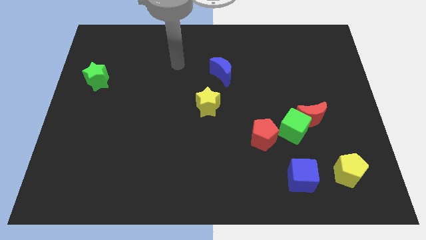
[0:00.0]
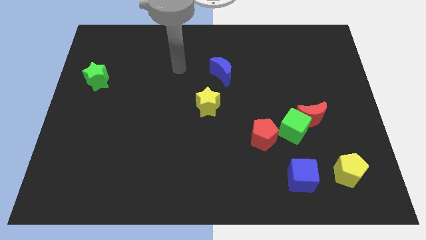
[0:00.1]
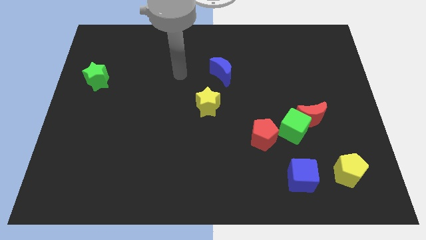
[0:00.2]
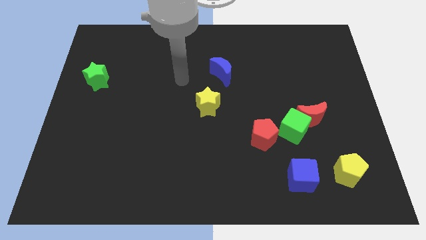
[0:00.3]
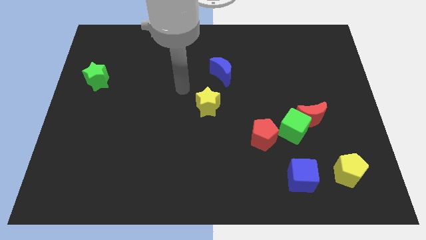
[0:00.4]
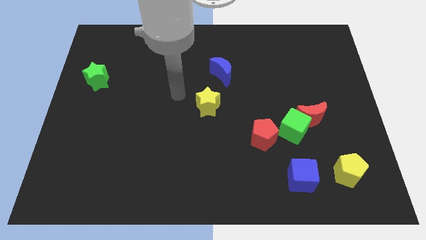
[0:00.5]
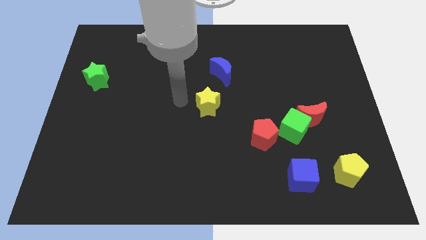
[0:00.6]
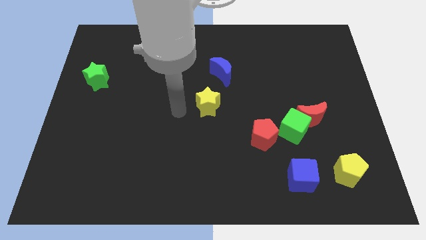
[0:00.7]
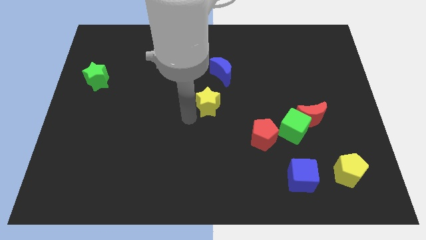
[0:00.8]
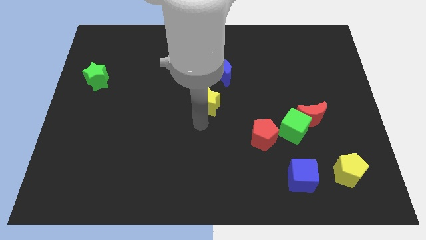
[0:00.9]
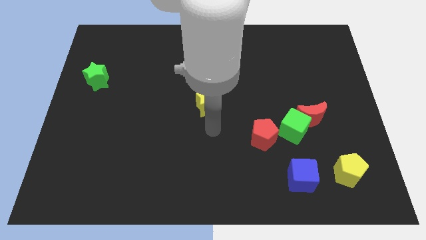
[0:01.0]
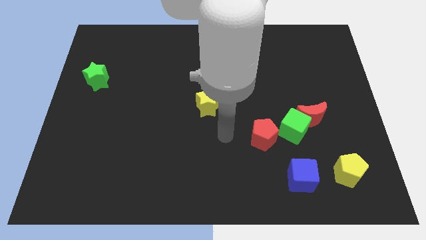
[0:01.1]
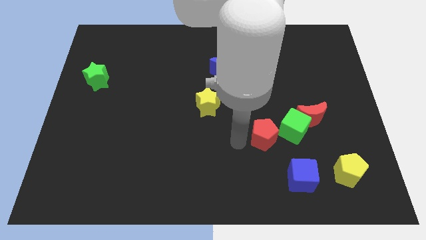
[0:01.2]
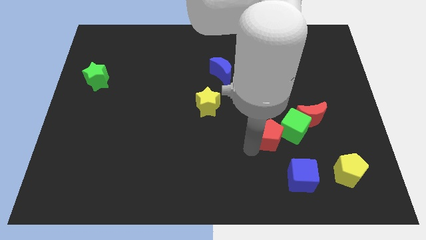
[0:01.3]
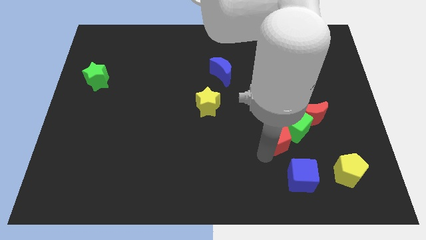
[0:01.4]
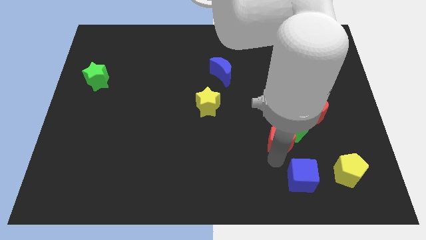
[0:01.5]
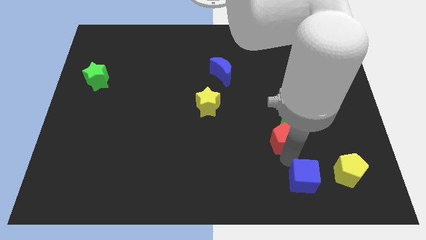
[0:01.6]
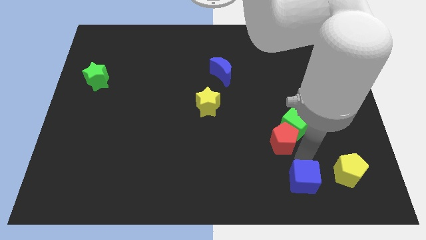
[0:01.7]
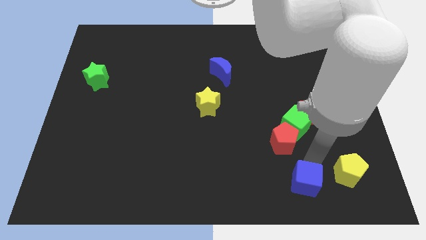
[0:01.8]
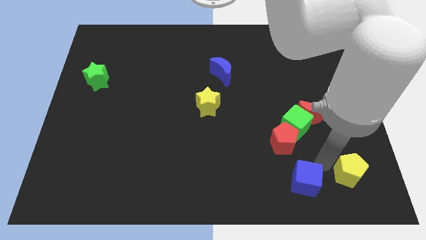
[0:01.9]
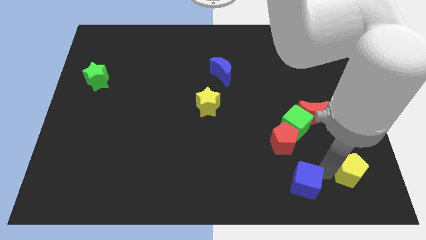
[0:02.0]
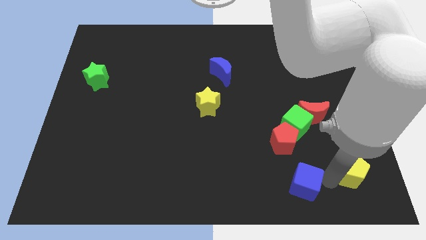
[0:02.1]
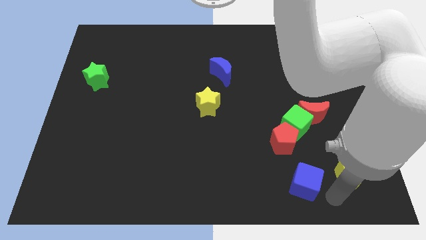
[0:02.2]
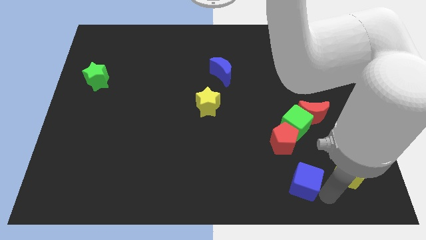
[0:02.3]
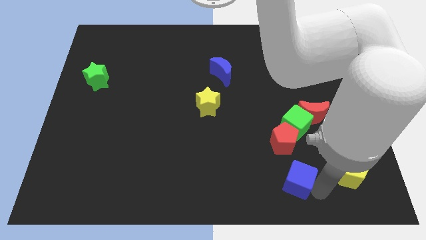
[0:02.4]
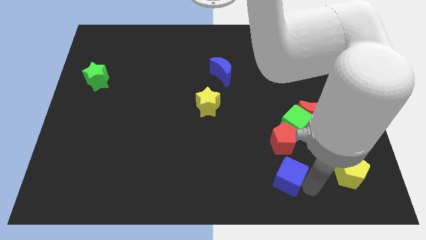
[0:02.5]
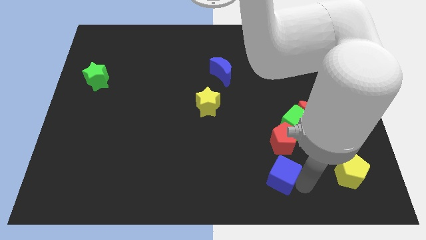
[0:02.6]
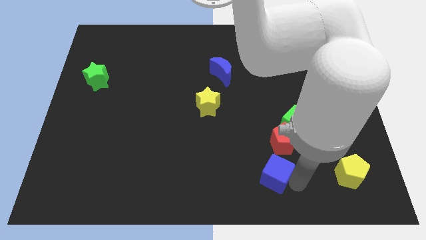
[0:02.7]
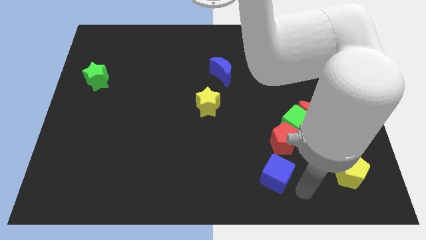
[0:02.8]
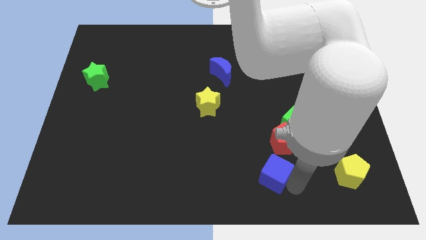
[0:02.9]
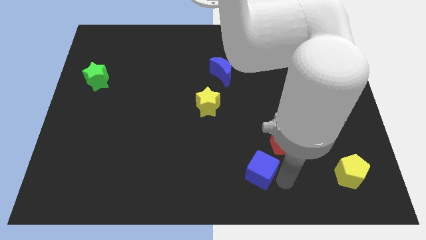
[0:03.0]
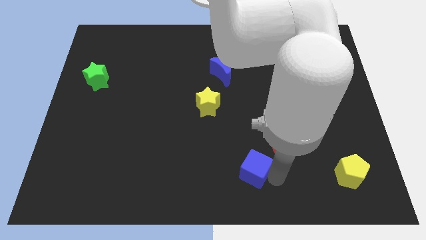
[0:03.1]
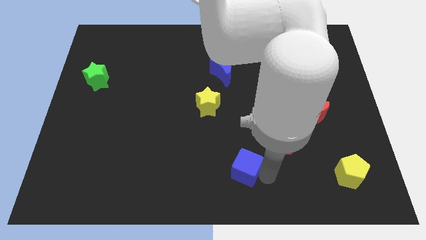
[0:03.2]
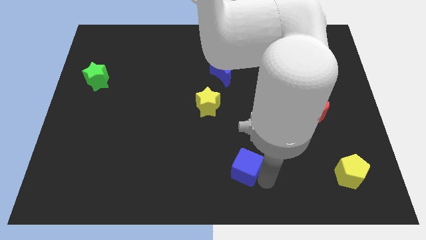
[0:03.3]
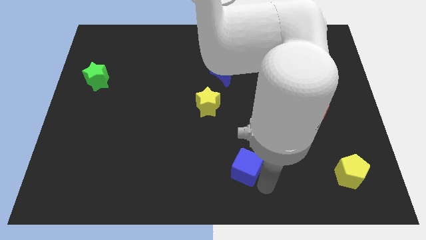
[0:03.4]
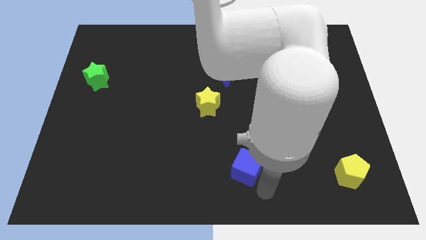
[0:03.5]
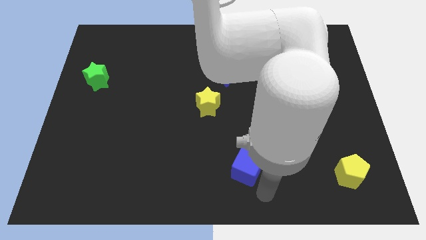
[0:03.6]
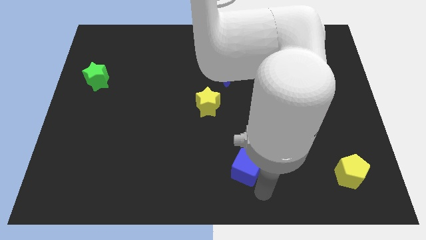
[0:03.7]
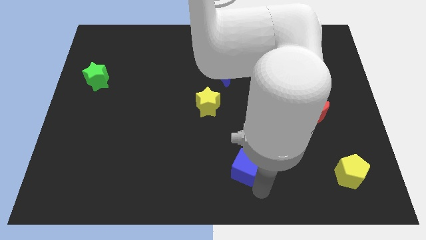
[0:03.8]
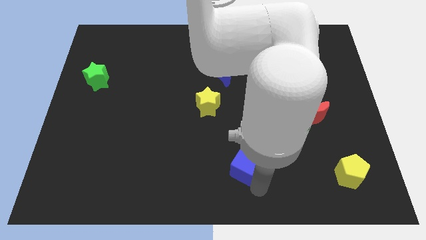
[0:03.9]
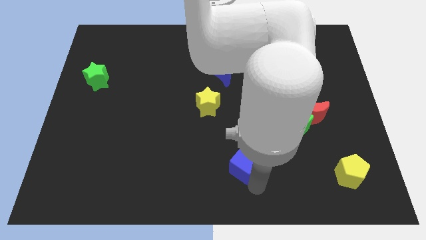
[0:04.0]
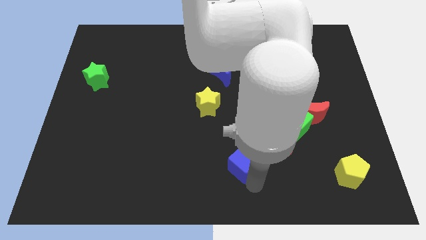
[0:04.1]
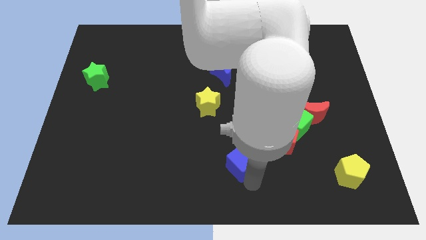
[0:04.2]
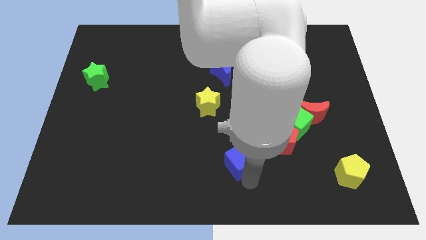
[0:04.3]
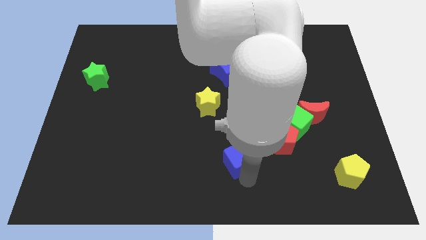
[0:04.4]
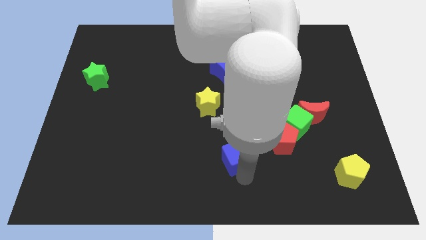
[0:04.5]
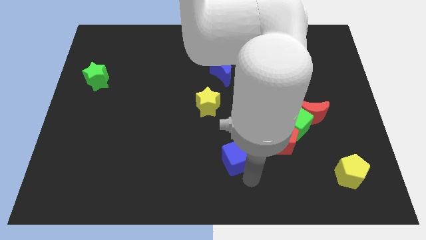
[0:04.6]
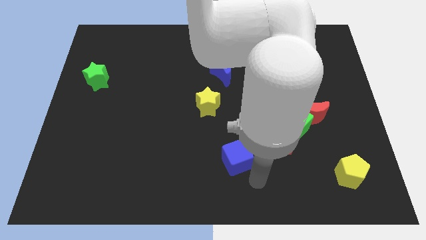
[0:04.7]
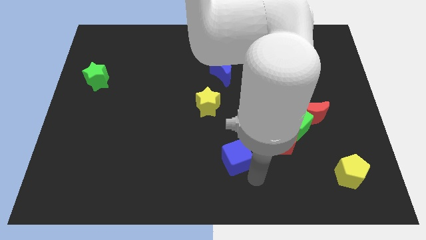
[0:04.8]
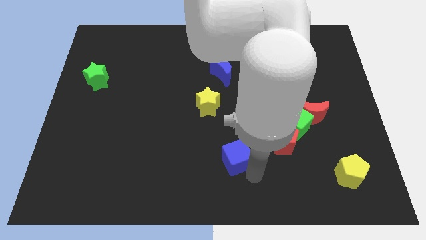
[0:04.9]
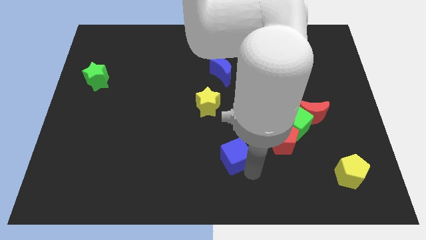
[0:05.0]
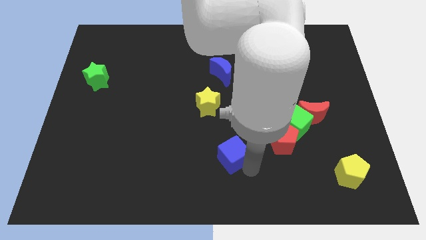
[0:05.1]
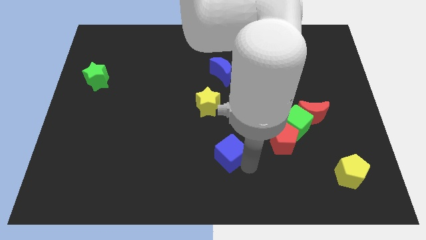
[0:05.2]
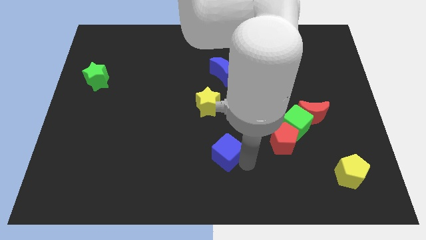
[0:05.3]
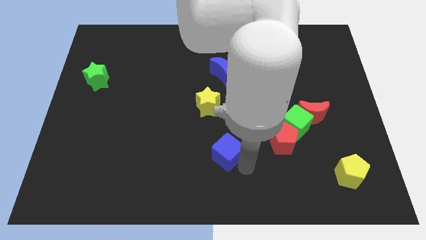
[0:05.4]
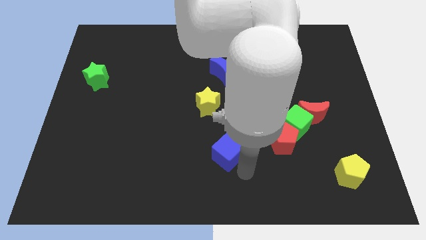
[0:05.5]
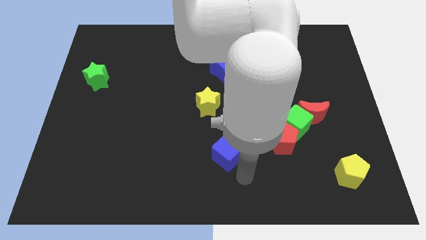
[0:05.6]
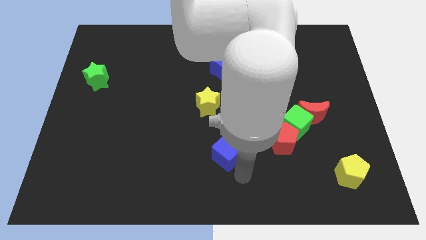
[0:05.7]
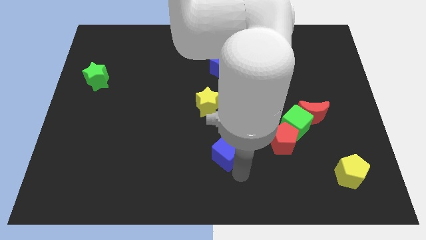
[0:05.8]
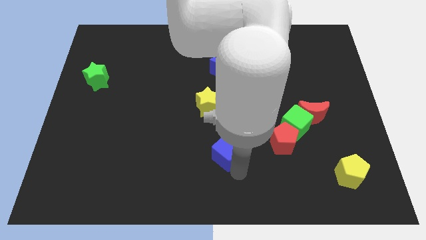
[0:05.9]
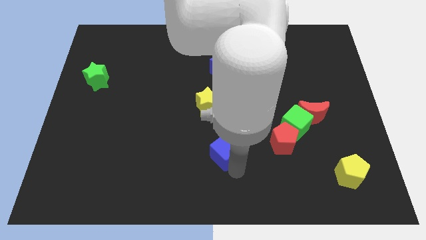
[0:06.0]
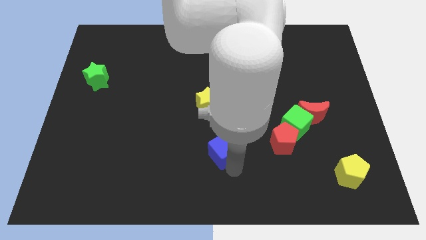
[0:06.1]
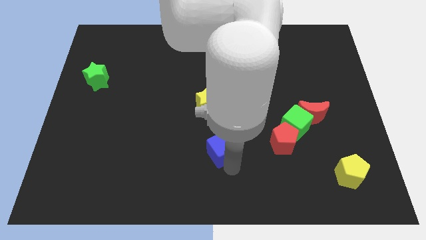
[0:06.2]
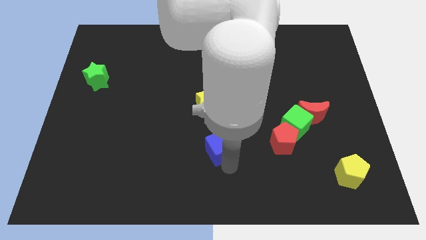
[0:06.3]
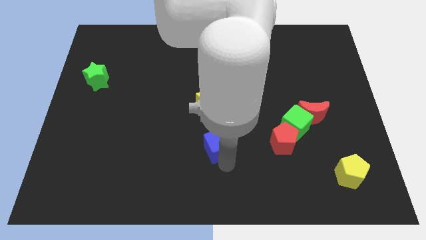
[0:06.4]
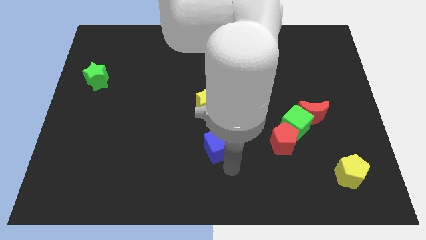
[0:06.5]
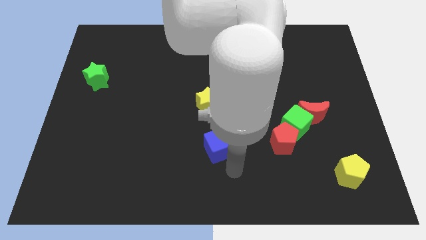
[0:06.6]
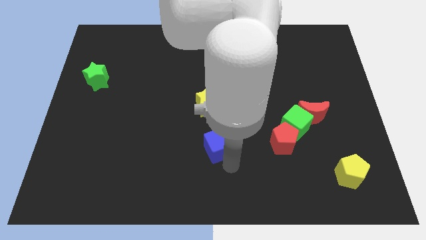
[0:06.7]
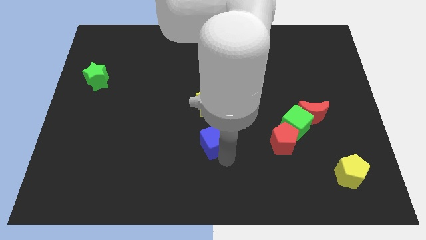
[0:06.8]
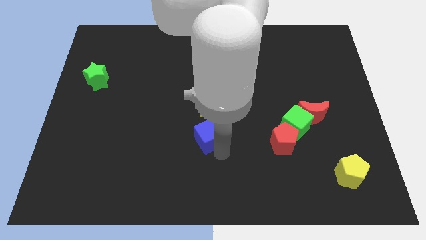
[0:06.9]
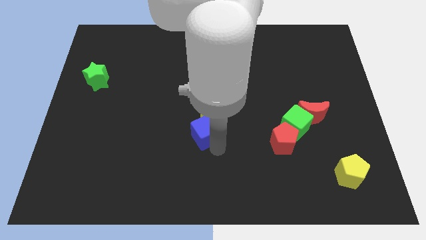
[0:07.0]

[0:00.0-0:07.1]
push the blue cube diagonally upwards and left

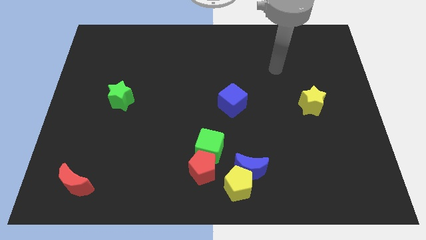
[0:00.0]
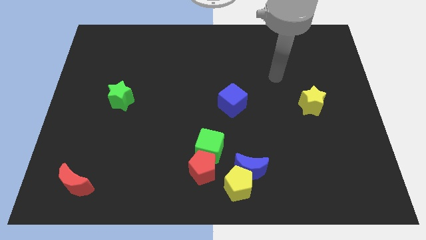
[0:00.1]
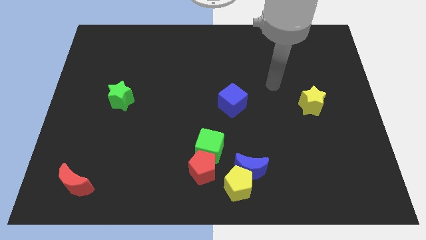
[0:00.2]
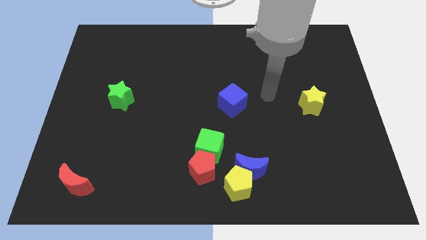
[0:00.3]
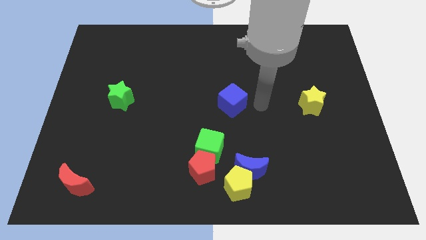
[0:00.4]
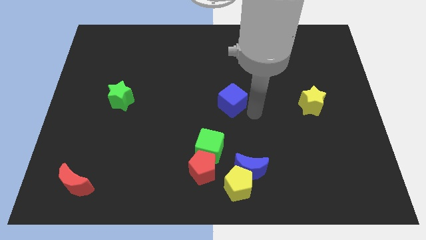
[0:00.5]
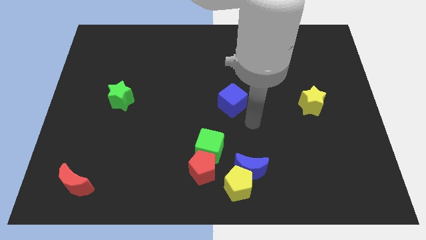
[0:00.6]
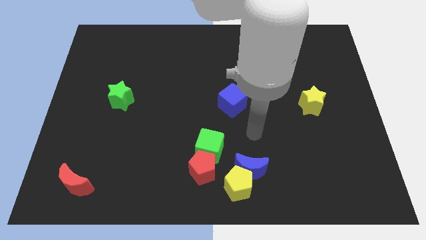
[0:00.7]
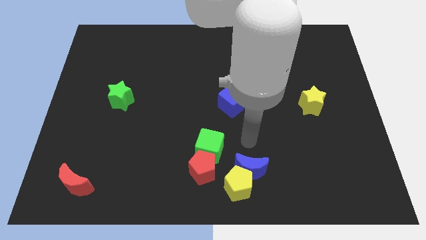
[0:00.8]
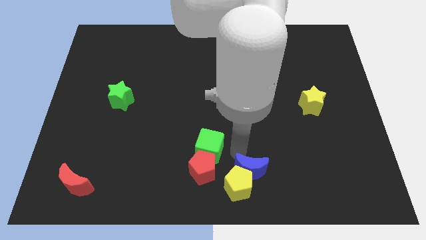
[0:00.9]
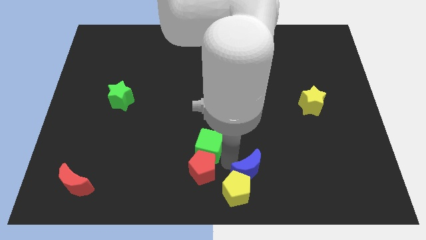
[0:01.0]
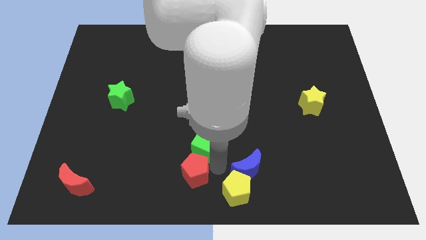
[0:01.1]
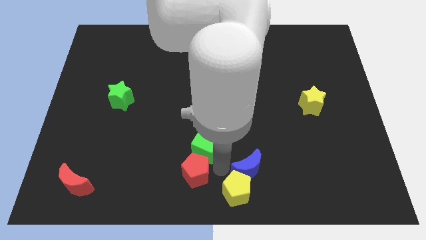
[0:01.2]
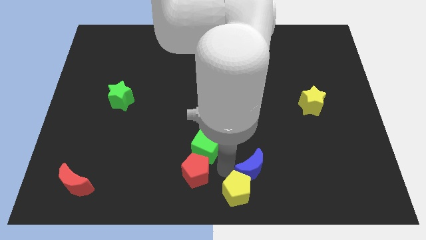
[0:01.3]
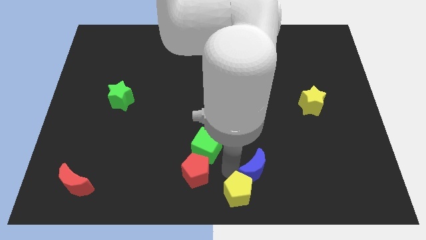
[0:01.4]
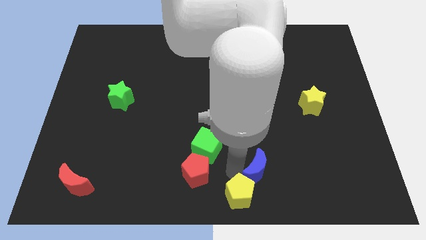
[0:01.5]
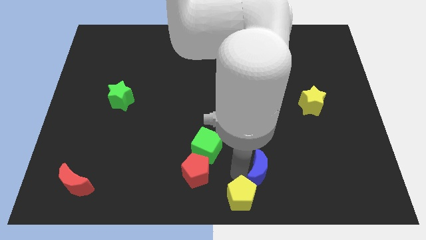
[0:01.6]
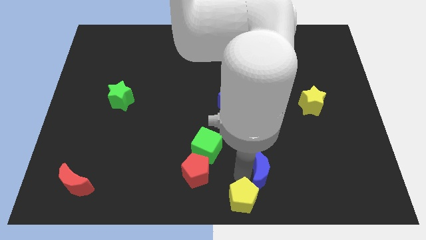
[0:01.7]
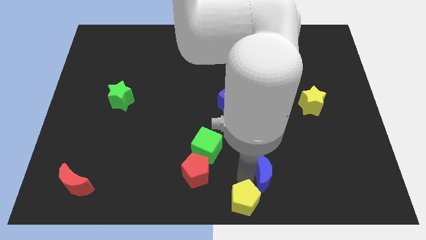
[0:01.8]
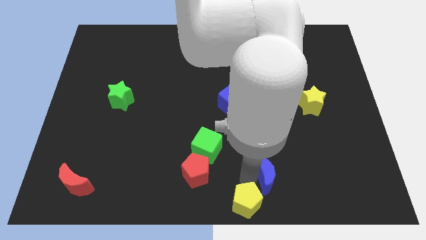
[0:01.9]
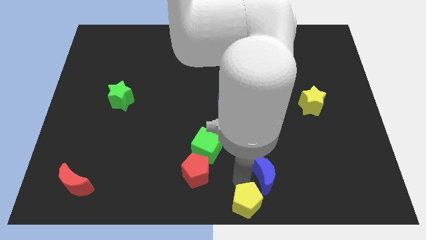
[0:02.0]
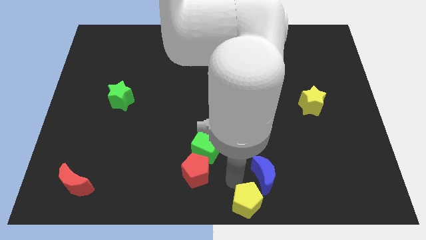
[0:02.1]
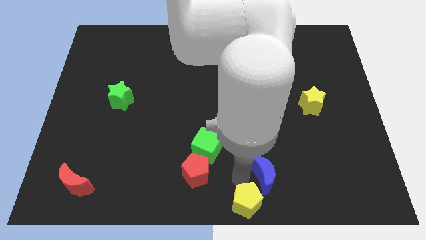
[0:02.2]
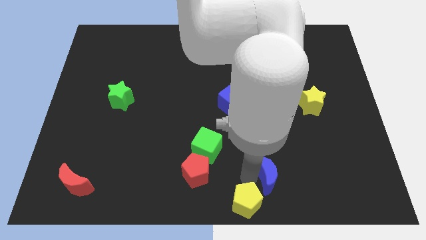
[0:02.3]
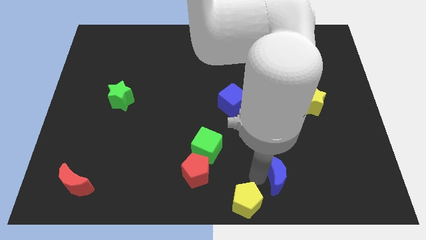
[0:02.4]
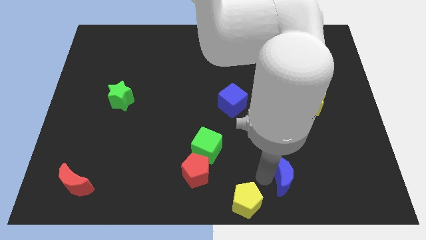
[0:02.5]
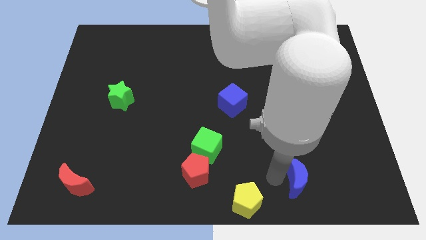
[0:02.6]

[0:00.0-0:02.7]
slide the blue moon right slightly
